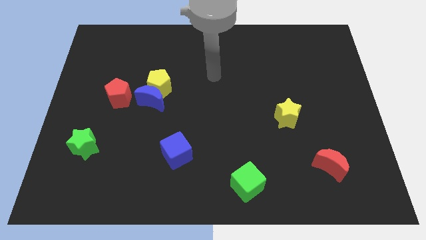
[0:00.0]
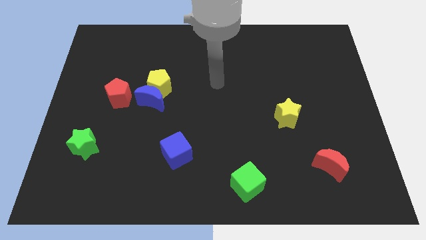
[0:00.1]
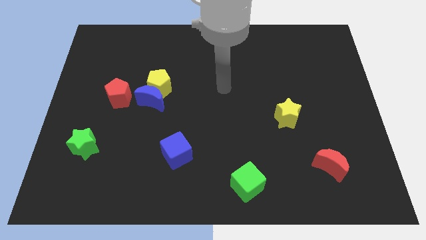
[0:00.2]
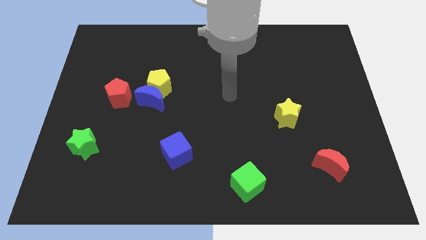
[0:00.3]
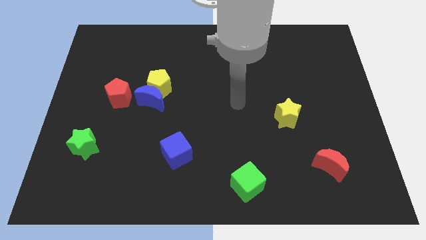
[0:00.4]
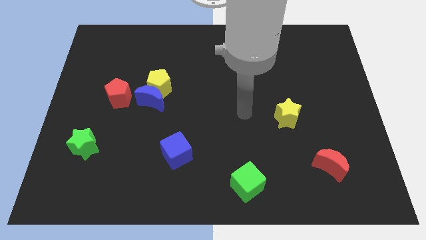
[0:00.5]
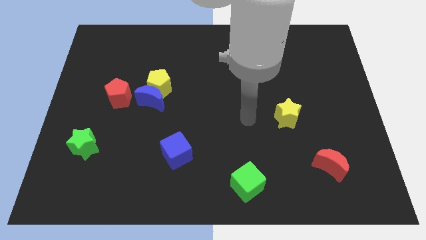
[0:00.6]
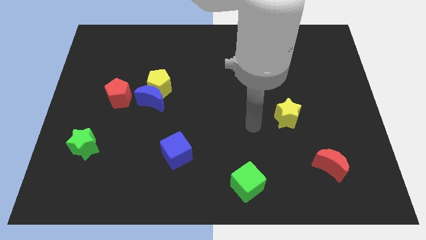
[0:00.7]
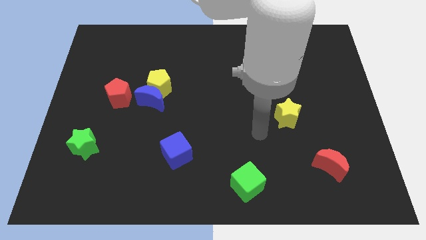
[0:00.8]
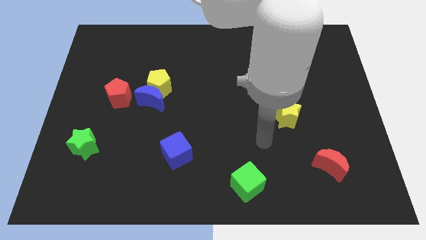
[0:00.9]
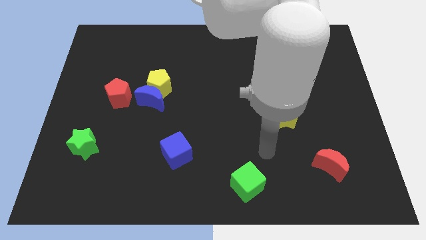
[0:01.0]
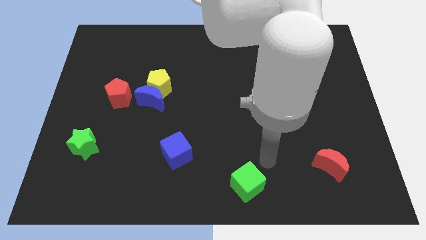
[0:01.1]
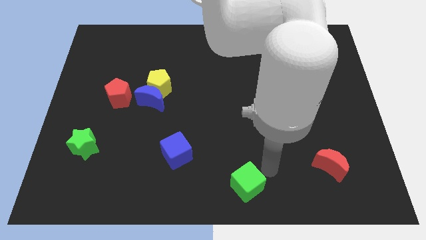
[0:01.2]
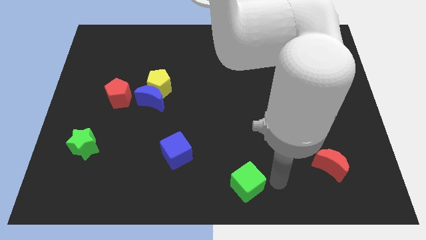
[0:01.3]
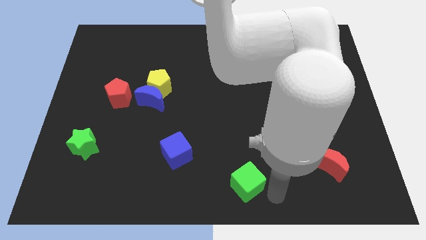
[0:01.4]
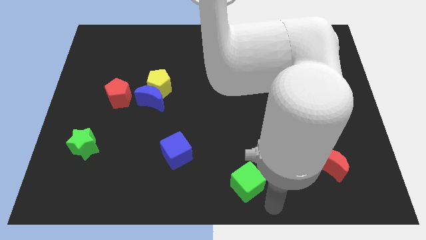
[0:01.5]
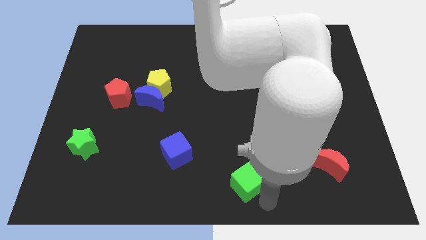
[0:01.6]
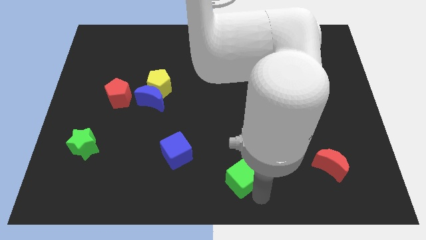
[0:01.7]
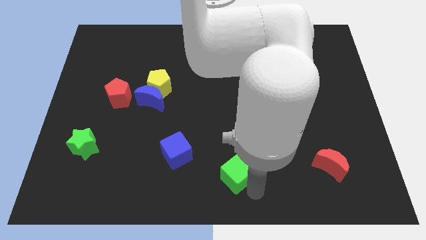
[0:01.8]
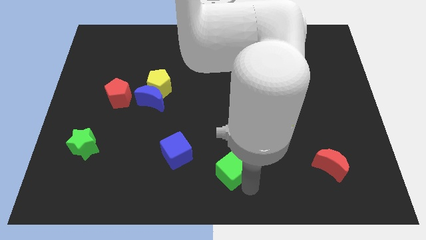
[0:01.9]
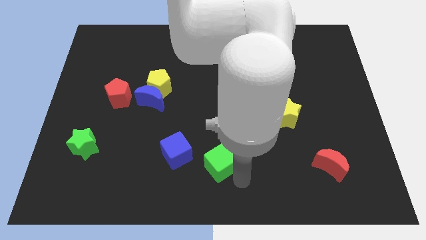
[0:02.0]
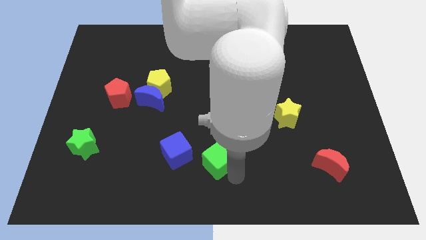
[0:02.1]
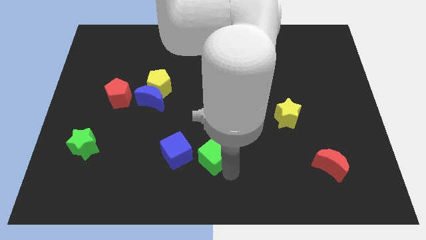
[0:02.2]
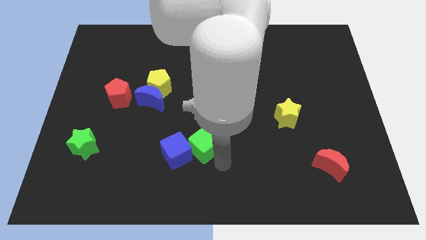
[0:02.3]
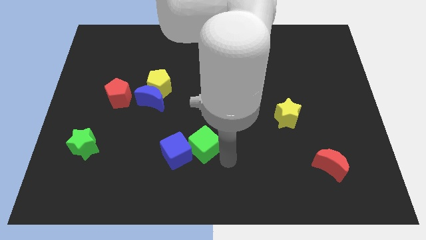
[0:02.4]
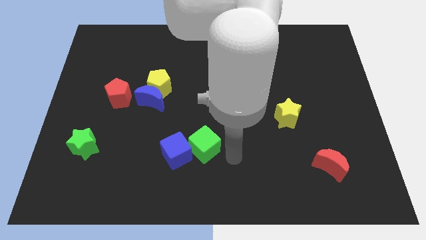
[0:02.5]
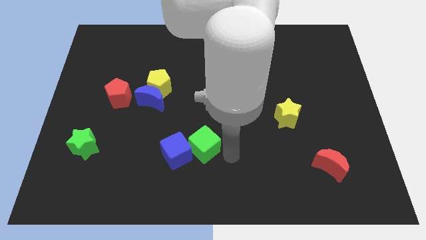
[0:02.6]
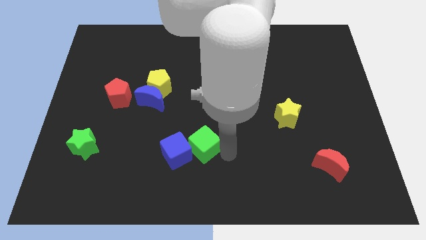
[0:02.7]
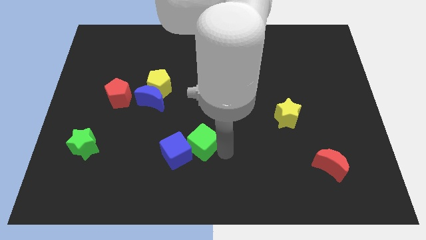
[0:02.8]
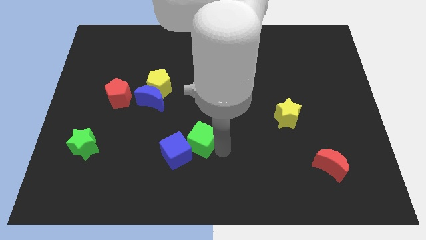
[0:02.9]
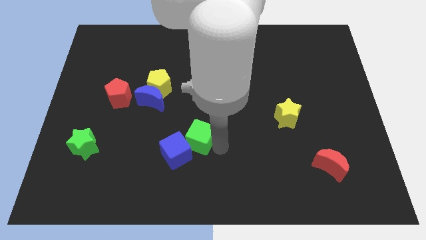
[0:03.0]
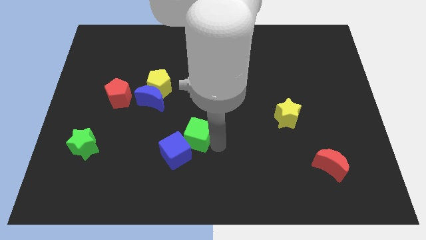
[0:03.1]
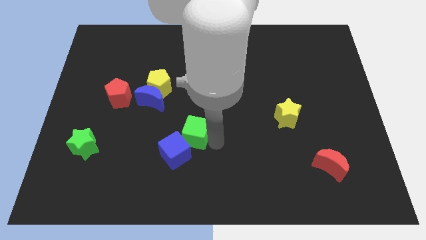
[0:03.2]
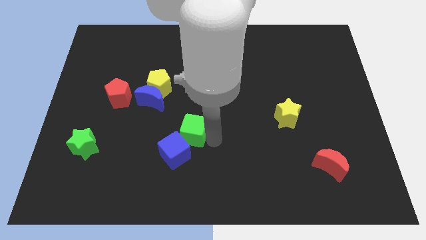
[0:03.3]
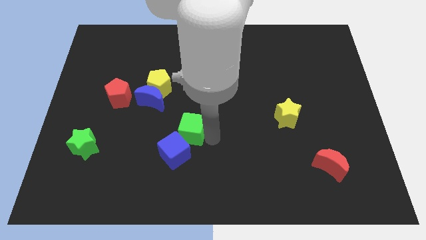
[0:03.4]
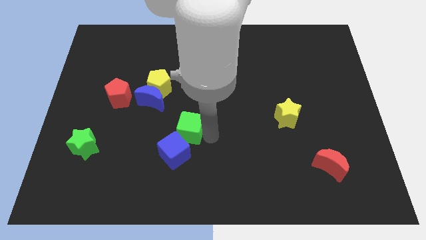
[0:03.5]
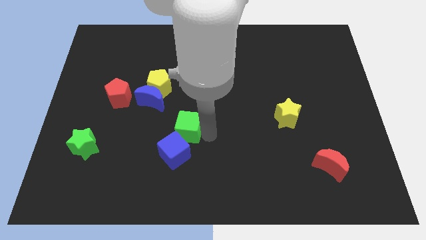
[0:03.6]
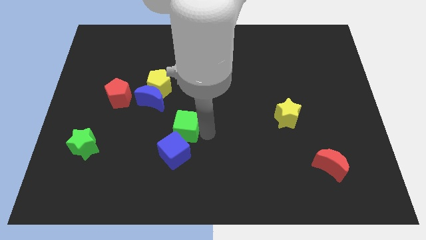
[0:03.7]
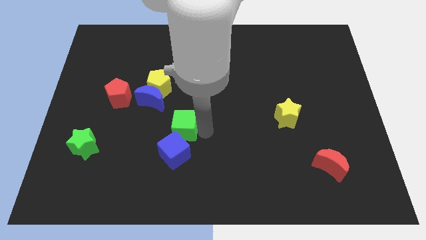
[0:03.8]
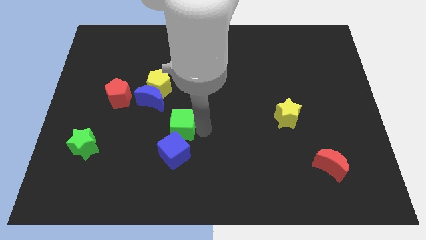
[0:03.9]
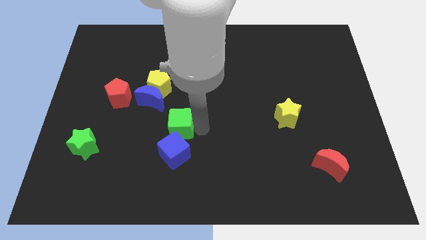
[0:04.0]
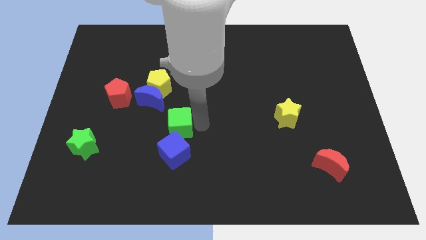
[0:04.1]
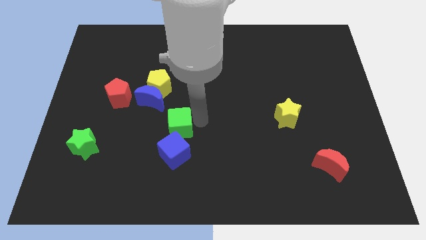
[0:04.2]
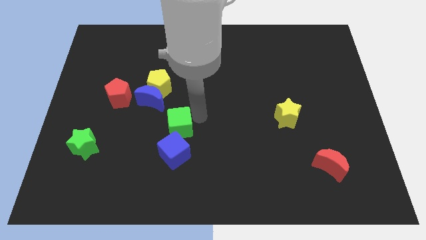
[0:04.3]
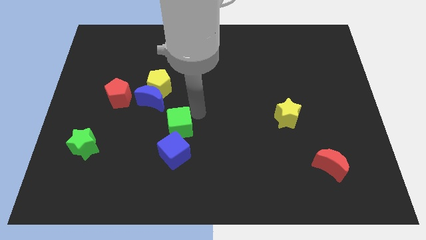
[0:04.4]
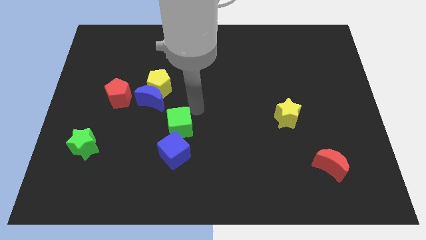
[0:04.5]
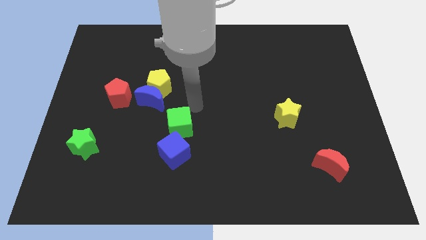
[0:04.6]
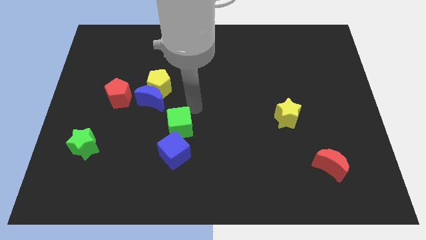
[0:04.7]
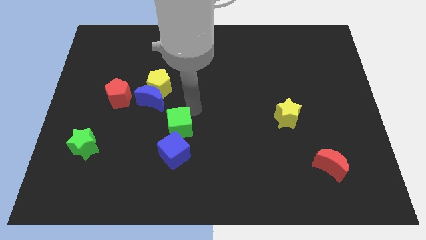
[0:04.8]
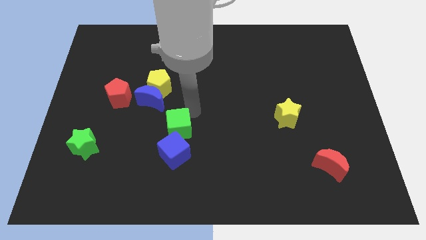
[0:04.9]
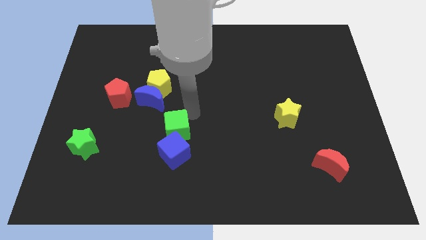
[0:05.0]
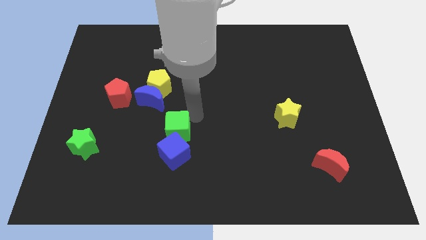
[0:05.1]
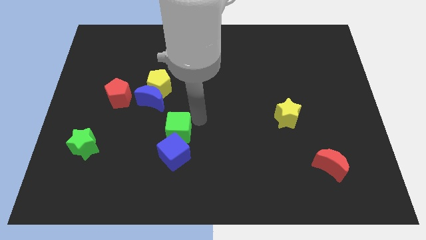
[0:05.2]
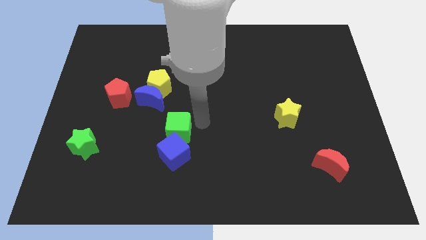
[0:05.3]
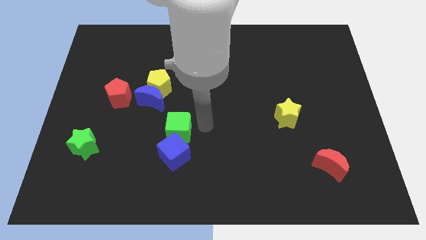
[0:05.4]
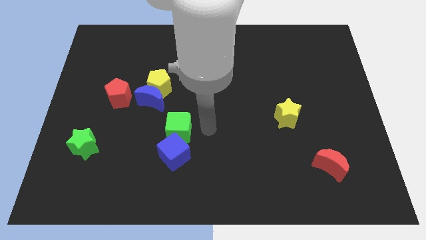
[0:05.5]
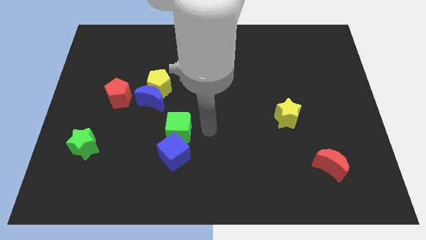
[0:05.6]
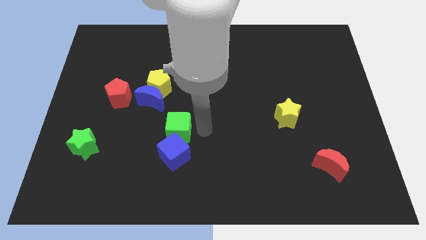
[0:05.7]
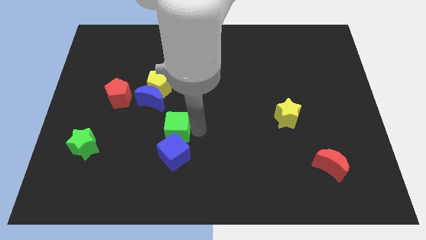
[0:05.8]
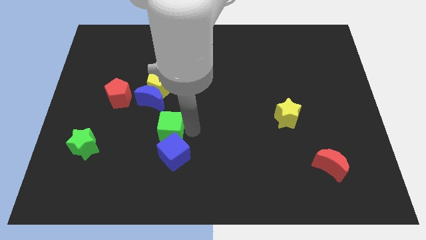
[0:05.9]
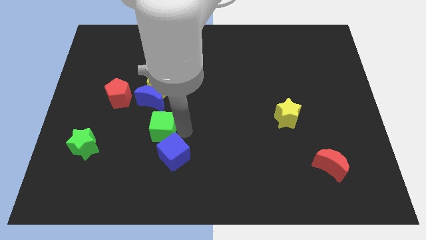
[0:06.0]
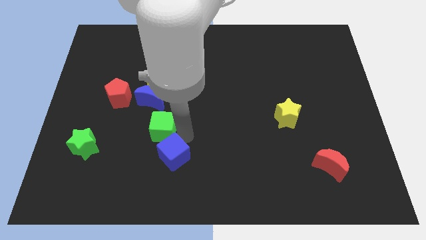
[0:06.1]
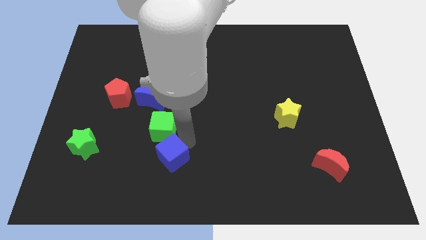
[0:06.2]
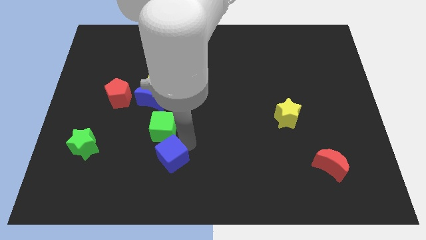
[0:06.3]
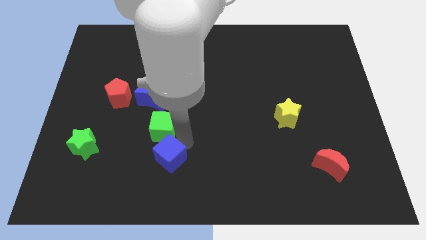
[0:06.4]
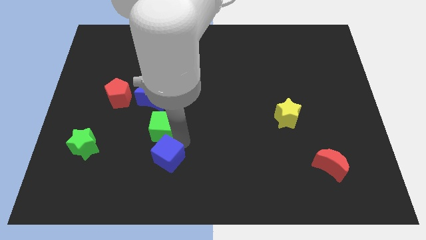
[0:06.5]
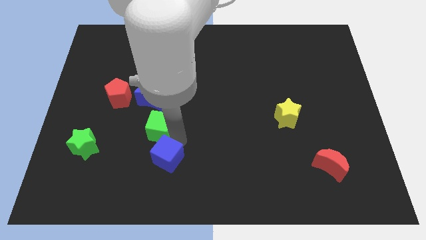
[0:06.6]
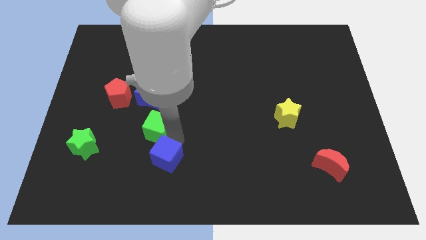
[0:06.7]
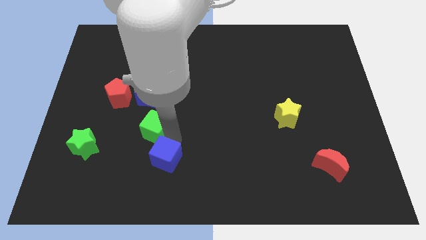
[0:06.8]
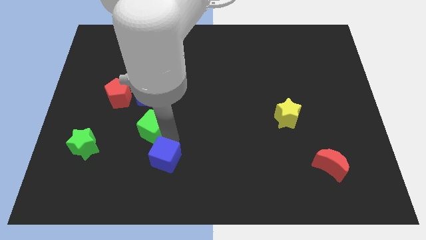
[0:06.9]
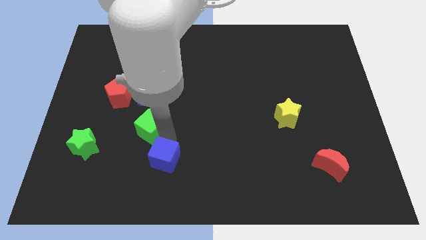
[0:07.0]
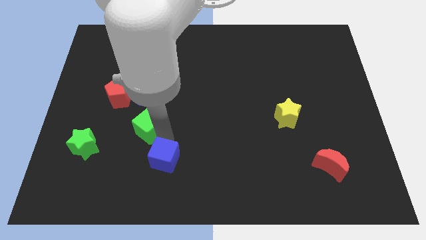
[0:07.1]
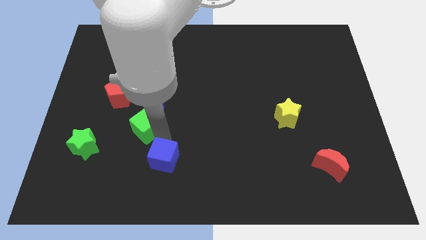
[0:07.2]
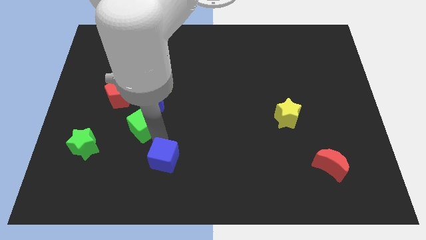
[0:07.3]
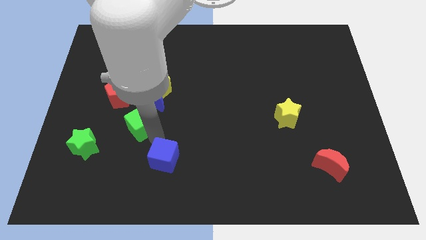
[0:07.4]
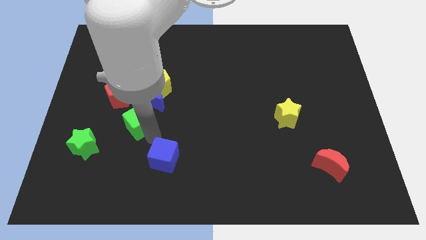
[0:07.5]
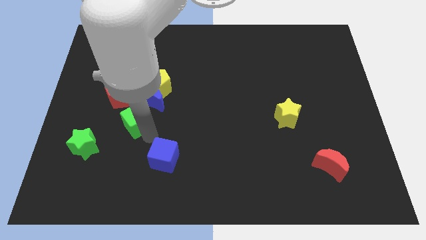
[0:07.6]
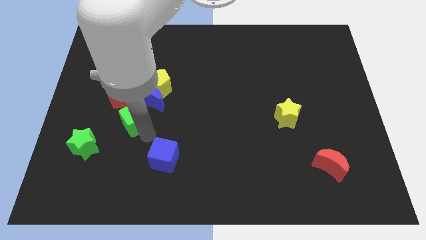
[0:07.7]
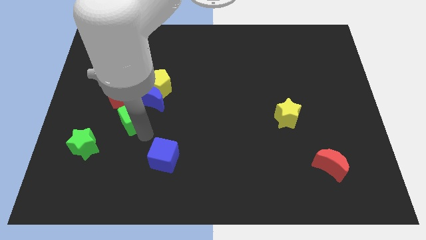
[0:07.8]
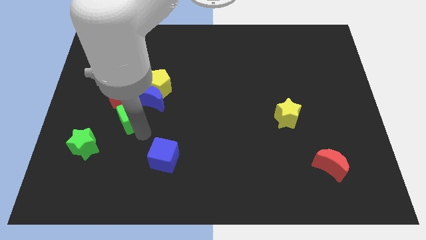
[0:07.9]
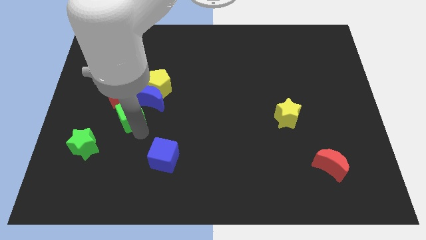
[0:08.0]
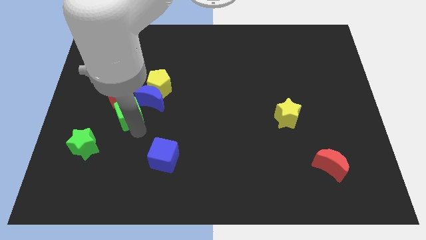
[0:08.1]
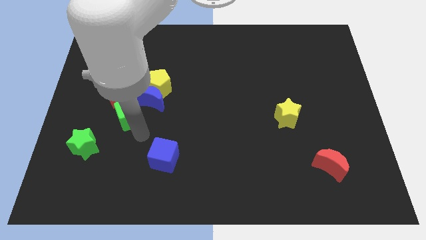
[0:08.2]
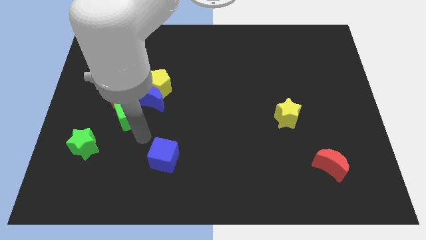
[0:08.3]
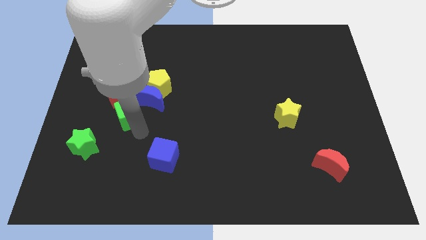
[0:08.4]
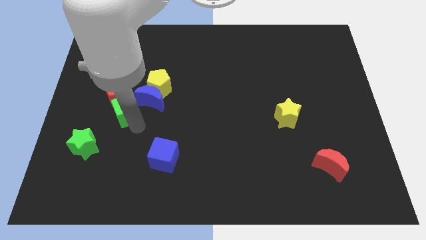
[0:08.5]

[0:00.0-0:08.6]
move the green cube to the red pentagon

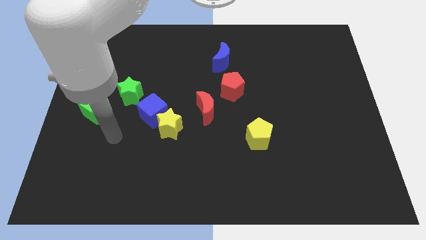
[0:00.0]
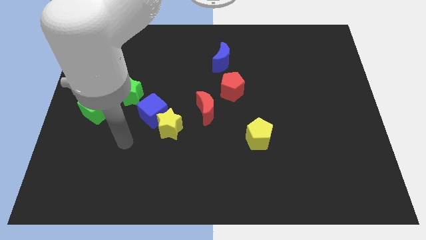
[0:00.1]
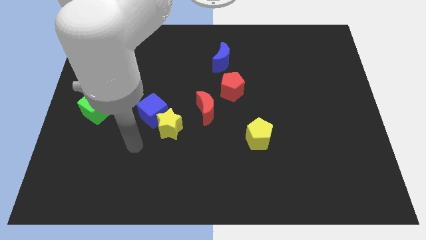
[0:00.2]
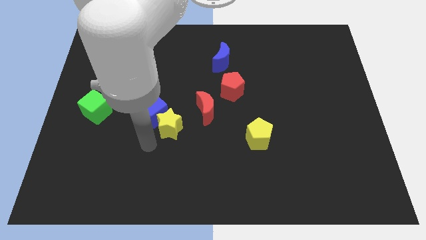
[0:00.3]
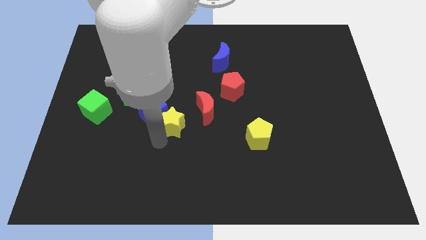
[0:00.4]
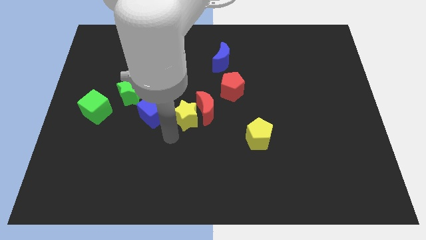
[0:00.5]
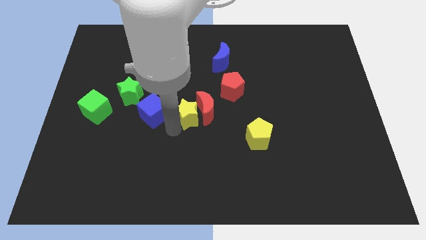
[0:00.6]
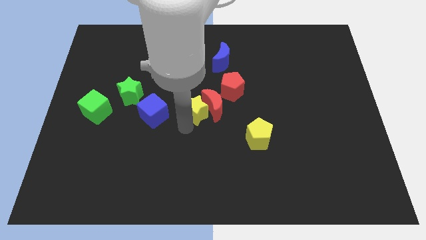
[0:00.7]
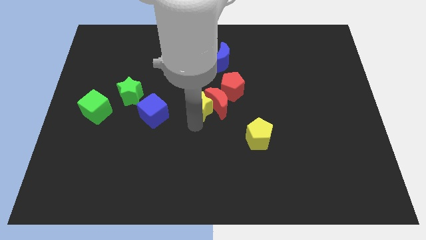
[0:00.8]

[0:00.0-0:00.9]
push the red moon to the red pentagon
